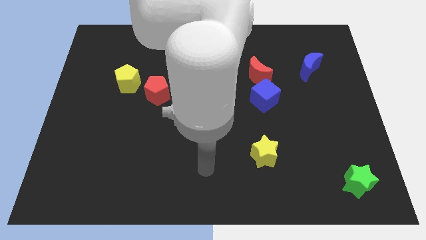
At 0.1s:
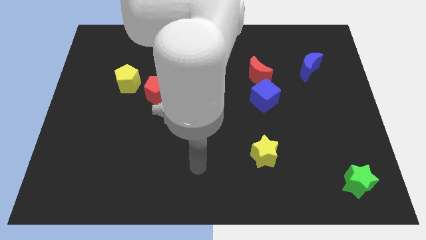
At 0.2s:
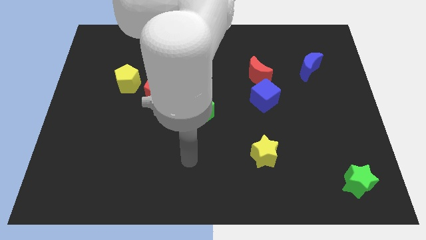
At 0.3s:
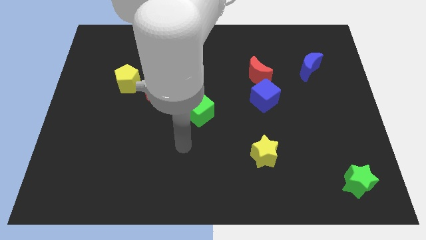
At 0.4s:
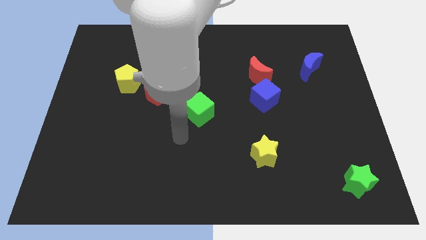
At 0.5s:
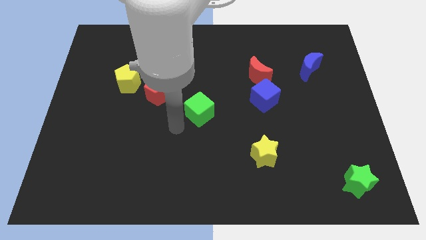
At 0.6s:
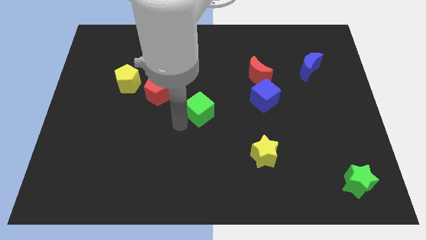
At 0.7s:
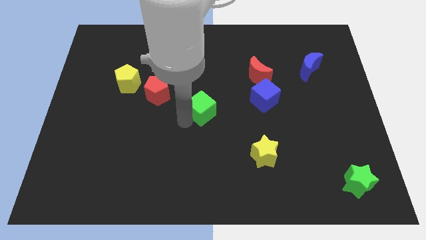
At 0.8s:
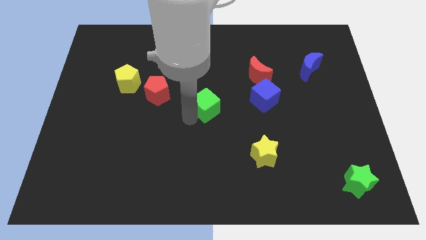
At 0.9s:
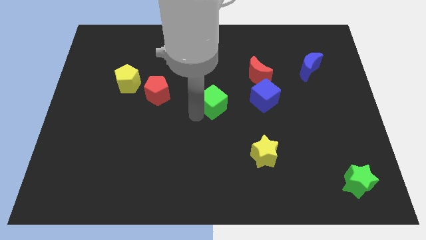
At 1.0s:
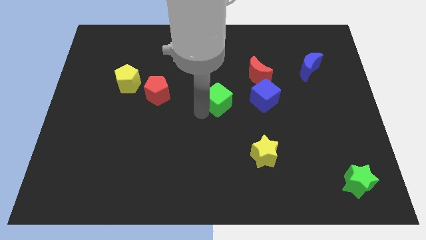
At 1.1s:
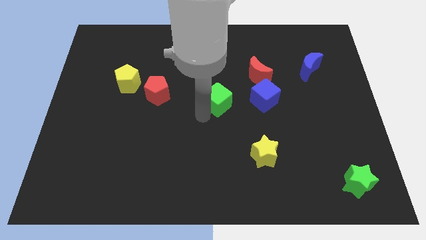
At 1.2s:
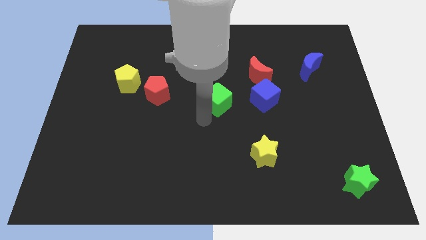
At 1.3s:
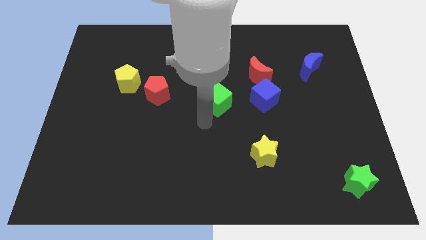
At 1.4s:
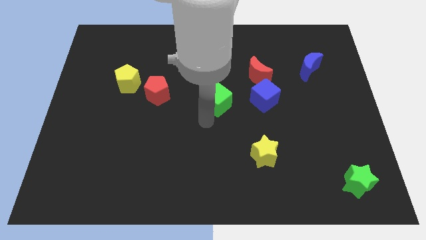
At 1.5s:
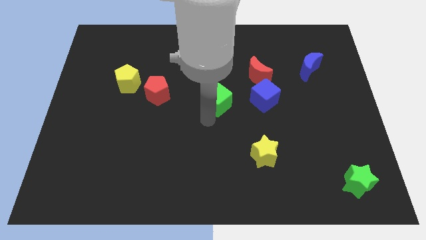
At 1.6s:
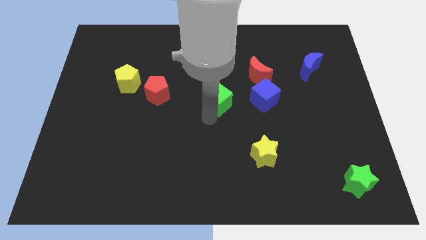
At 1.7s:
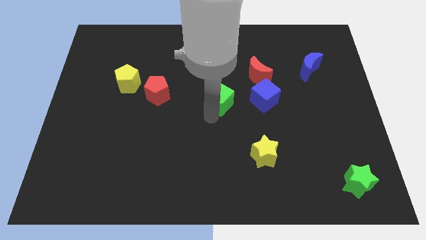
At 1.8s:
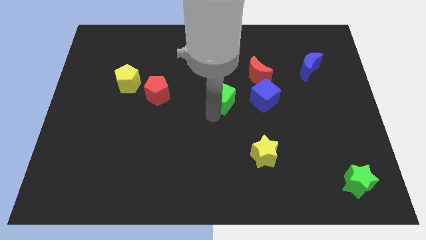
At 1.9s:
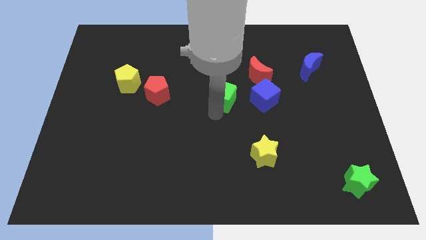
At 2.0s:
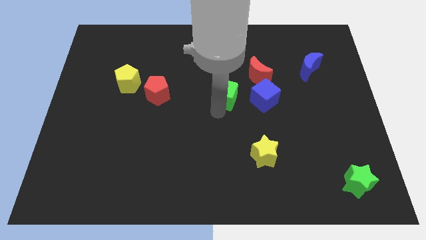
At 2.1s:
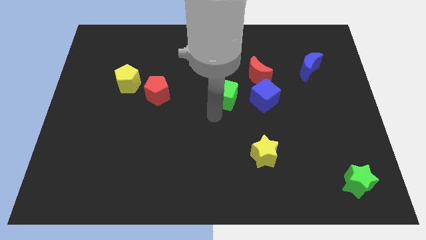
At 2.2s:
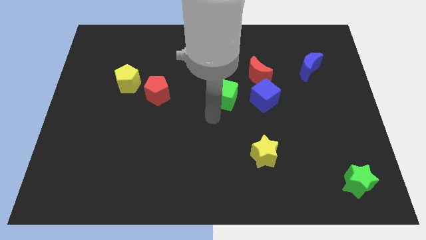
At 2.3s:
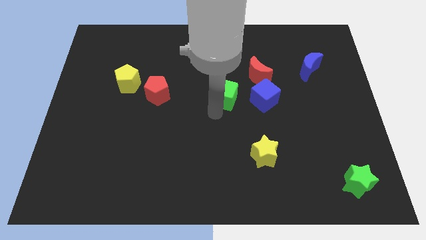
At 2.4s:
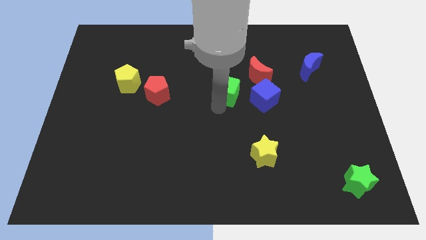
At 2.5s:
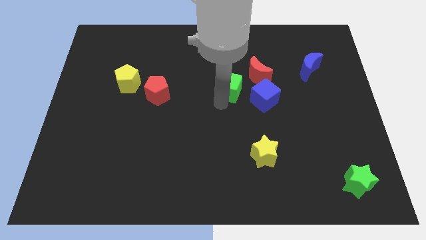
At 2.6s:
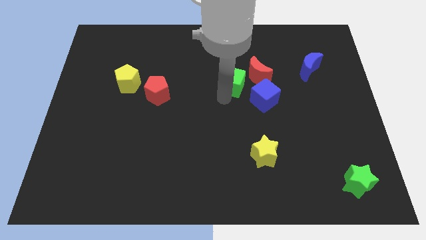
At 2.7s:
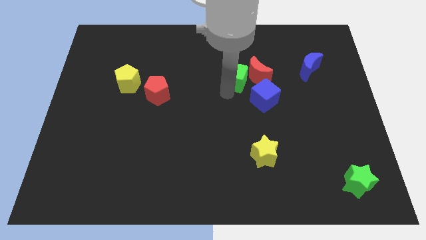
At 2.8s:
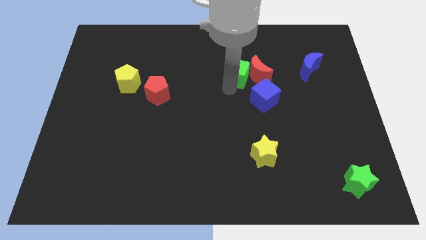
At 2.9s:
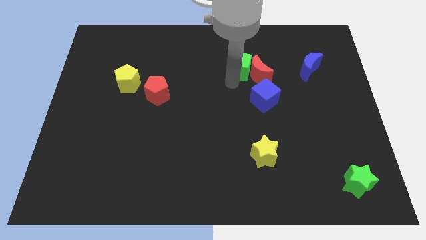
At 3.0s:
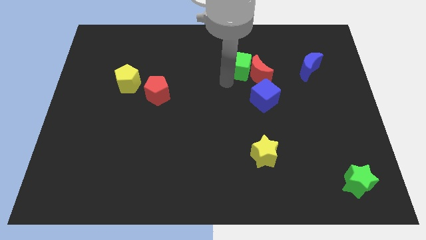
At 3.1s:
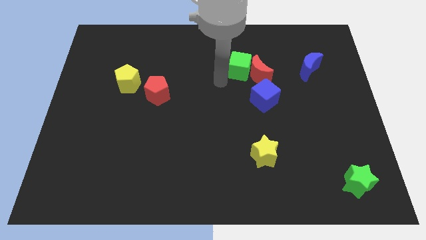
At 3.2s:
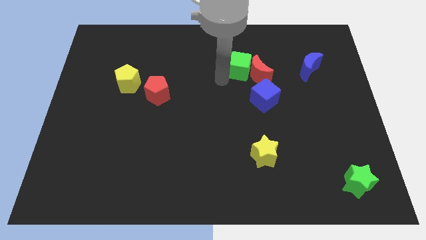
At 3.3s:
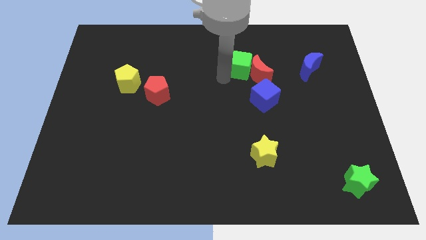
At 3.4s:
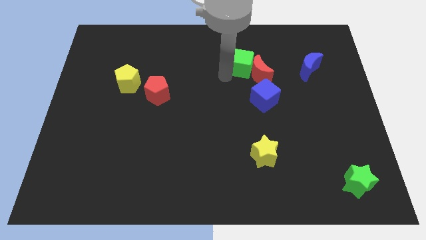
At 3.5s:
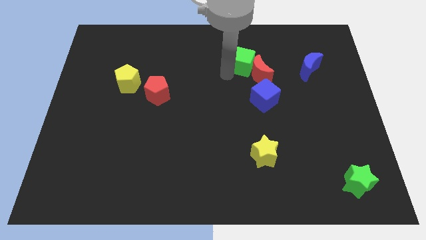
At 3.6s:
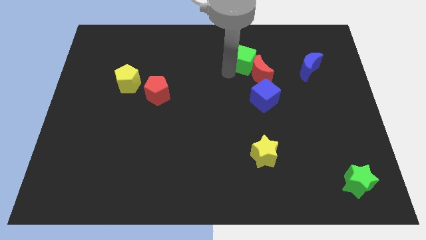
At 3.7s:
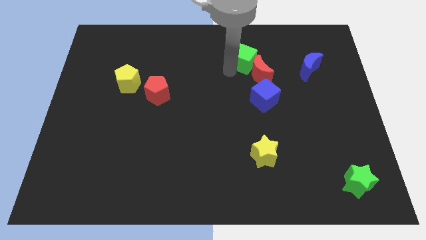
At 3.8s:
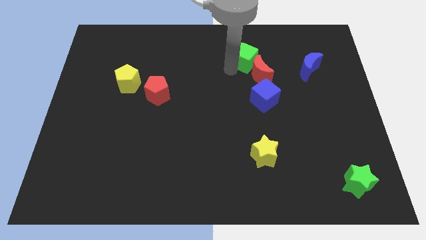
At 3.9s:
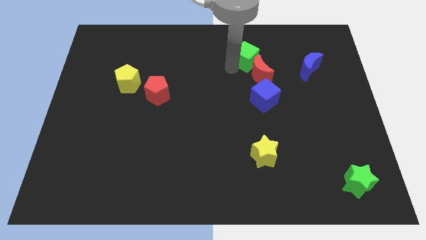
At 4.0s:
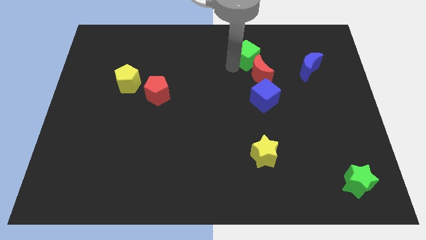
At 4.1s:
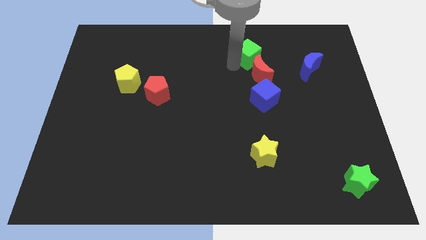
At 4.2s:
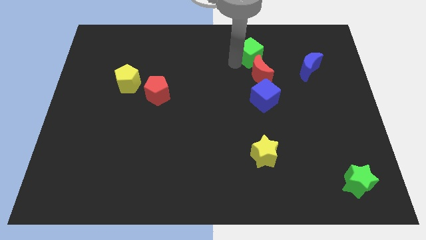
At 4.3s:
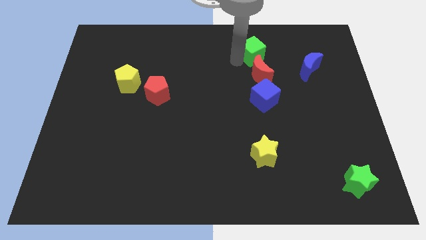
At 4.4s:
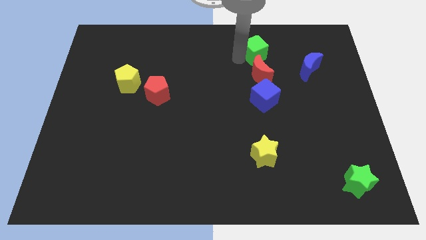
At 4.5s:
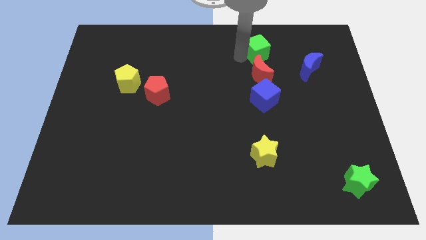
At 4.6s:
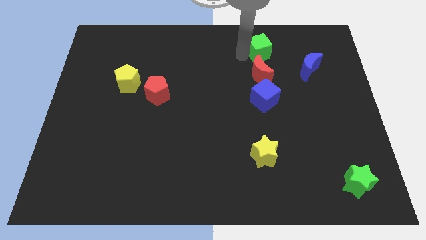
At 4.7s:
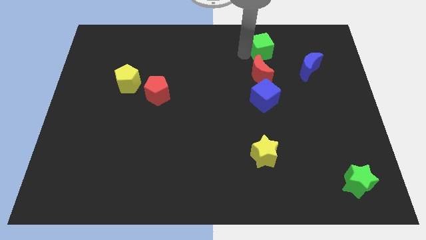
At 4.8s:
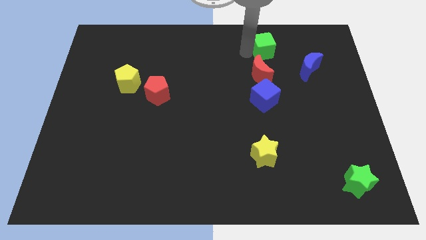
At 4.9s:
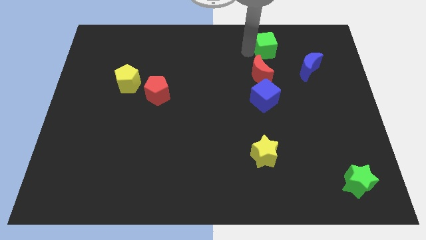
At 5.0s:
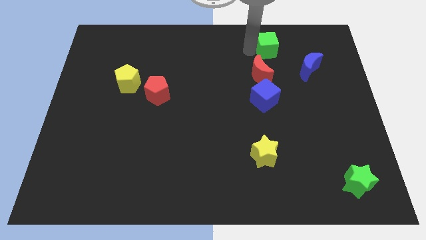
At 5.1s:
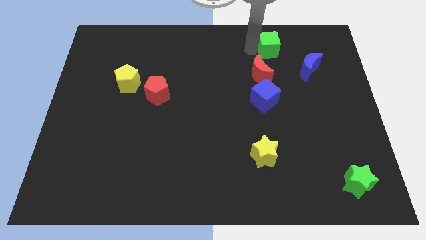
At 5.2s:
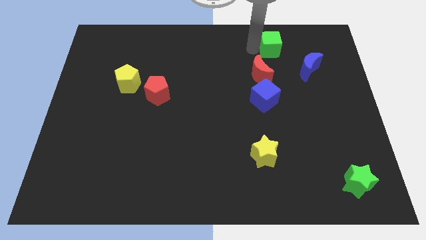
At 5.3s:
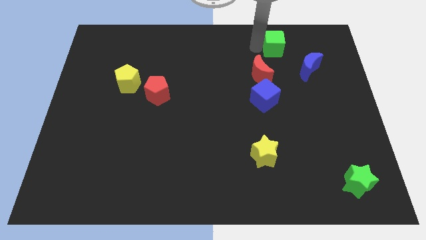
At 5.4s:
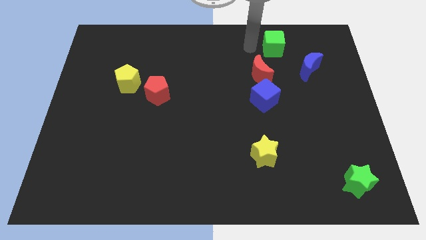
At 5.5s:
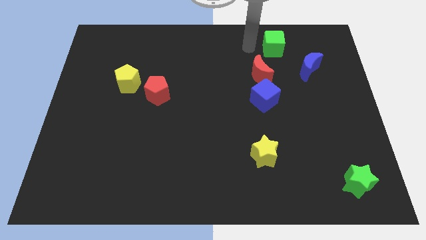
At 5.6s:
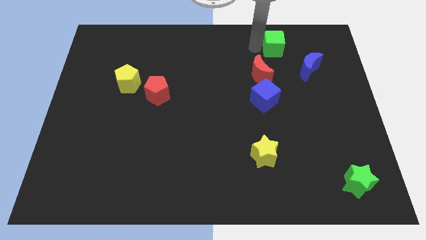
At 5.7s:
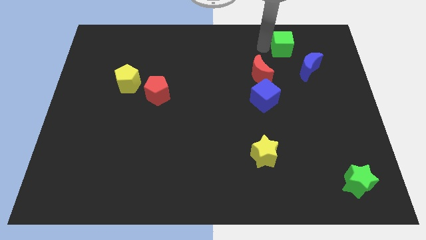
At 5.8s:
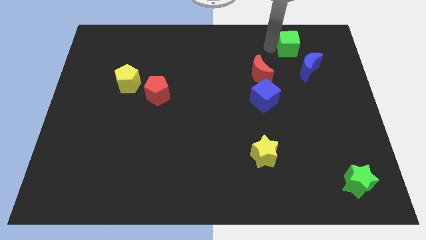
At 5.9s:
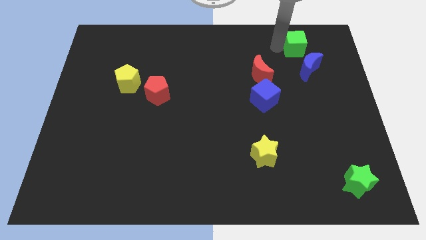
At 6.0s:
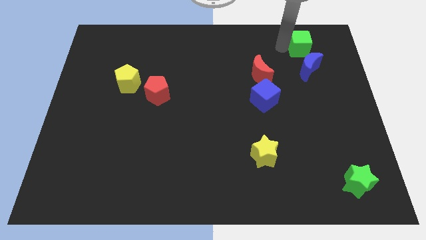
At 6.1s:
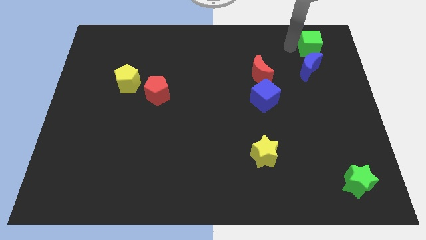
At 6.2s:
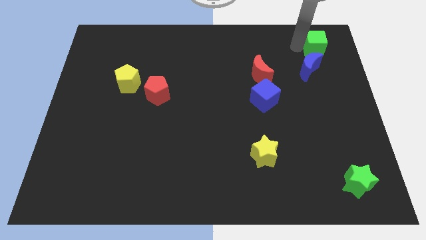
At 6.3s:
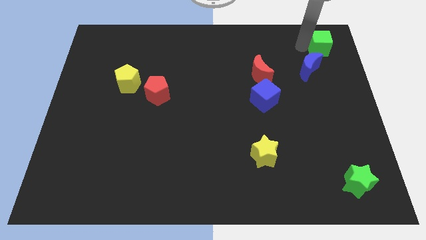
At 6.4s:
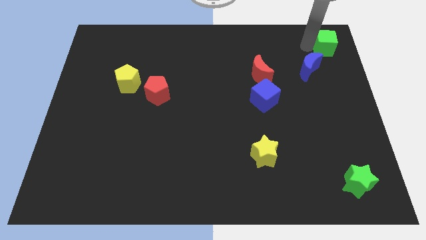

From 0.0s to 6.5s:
slide the green cube to the upper right corner
